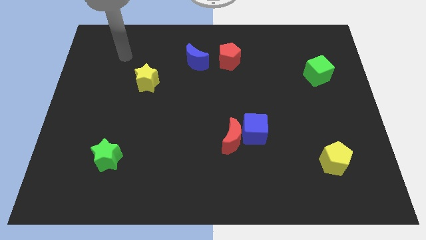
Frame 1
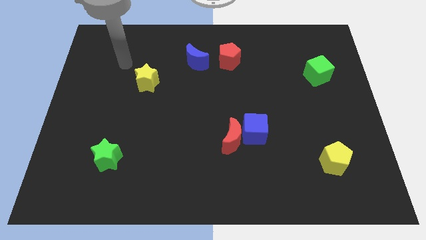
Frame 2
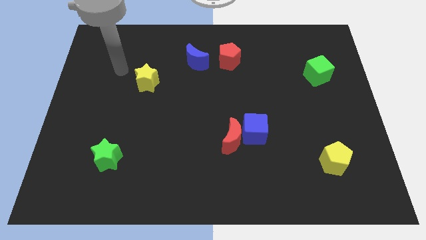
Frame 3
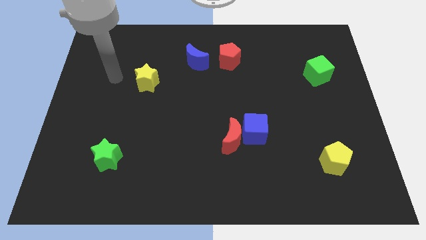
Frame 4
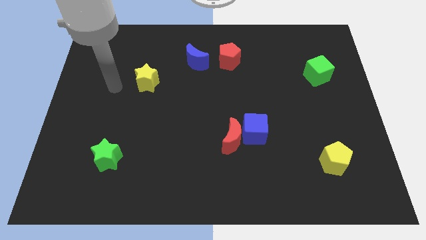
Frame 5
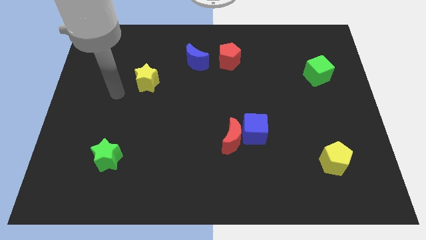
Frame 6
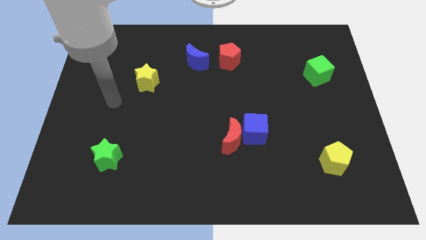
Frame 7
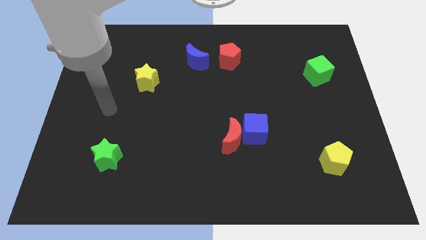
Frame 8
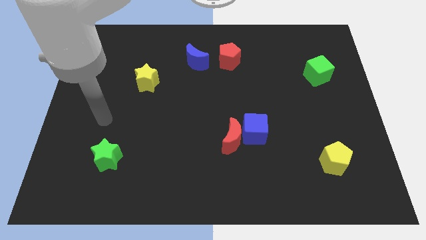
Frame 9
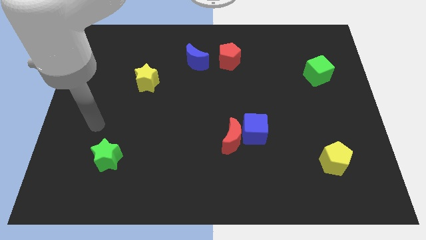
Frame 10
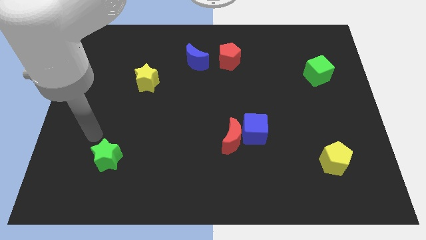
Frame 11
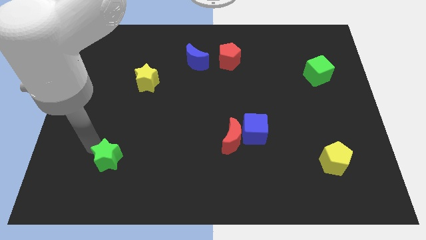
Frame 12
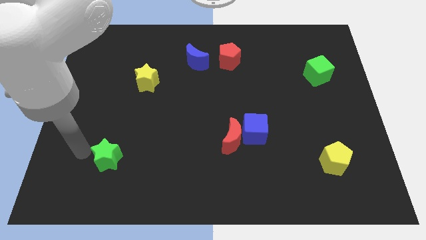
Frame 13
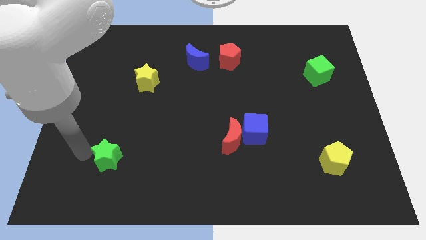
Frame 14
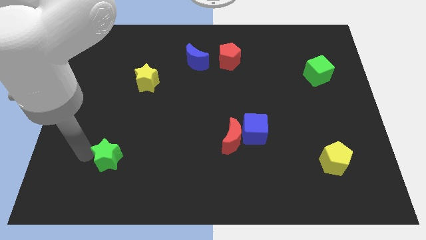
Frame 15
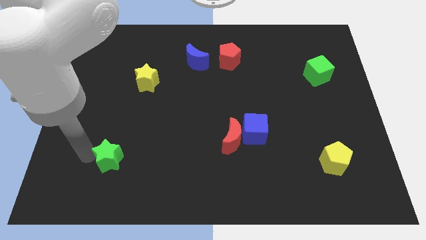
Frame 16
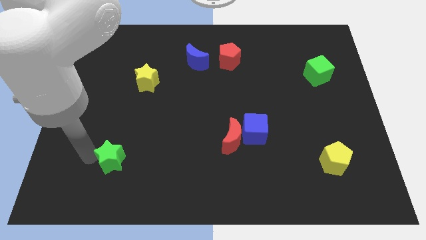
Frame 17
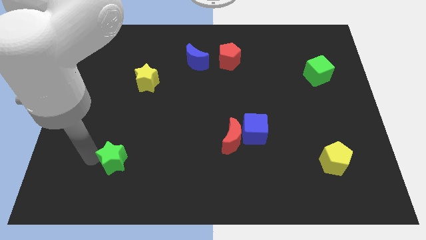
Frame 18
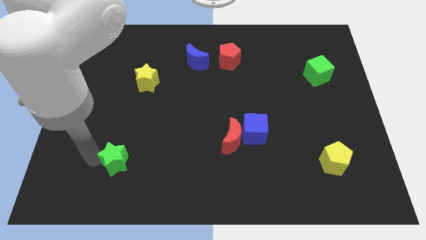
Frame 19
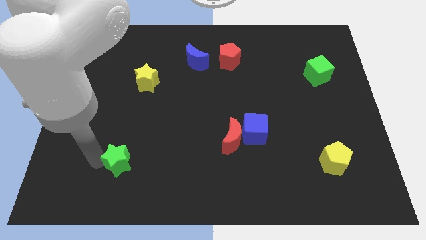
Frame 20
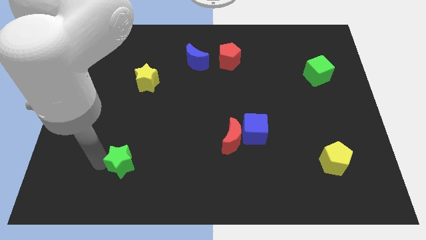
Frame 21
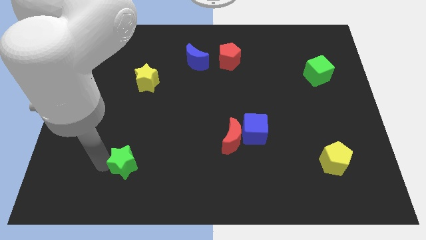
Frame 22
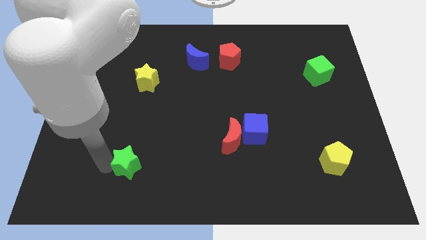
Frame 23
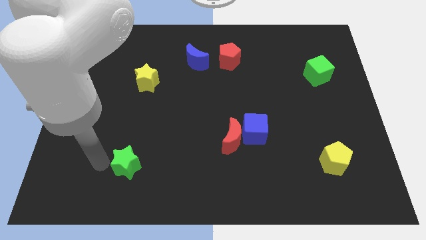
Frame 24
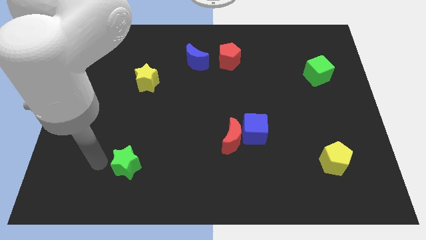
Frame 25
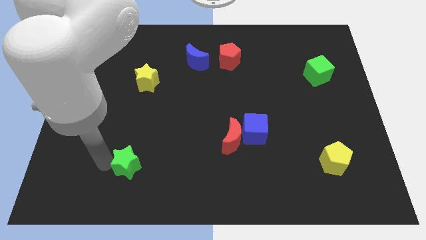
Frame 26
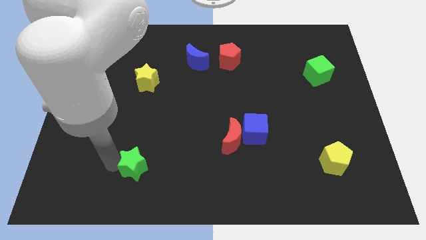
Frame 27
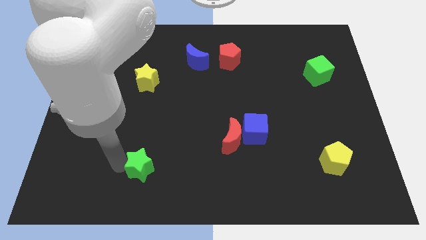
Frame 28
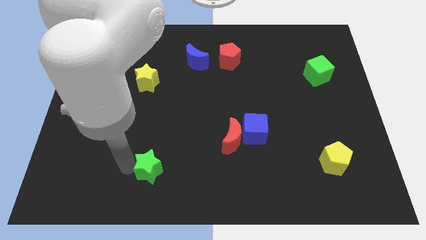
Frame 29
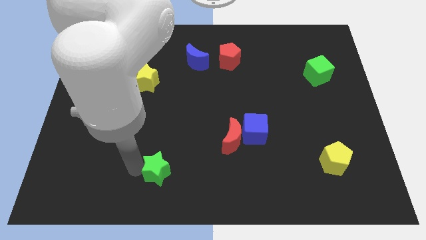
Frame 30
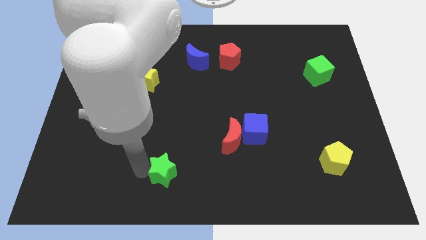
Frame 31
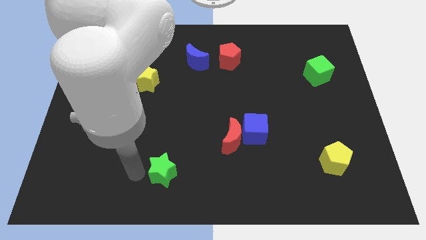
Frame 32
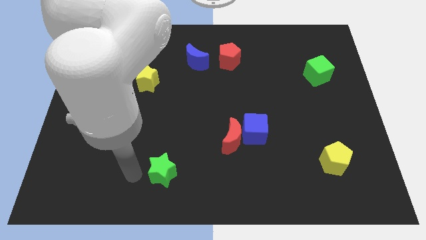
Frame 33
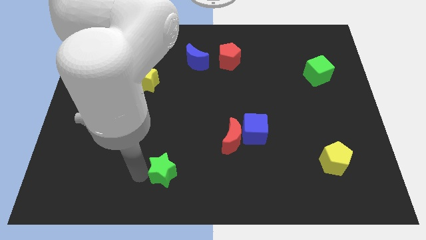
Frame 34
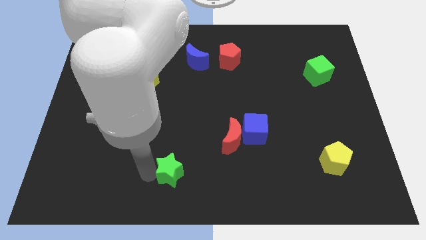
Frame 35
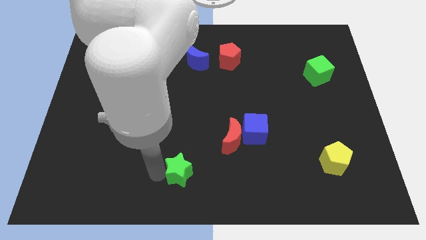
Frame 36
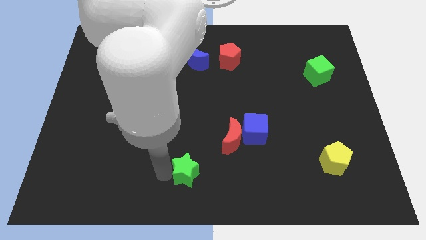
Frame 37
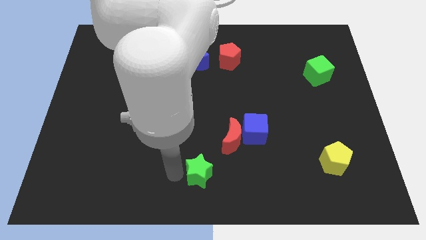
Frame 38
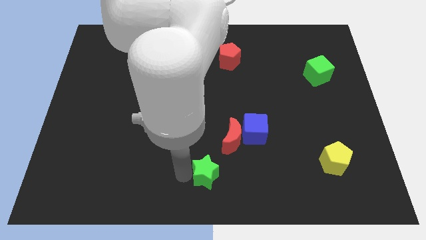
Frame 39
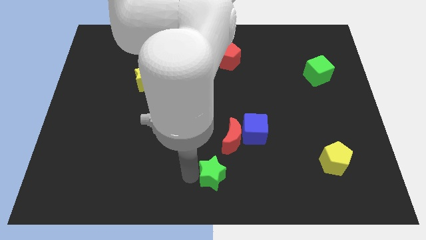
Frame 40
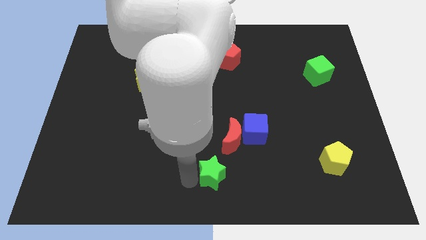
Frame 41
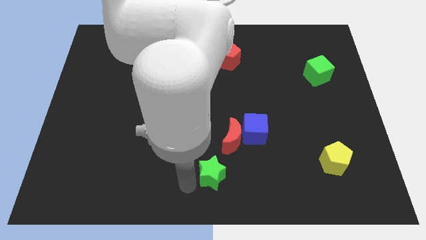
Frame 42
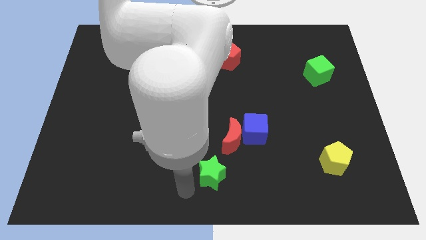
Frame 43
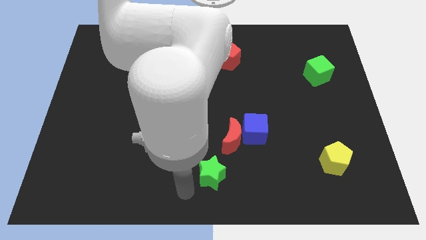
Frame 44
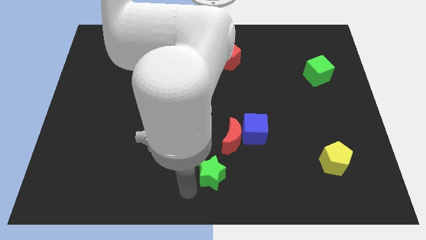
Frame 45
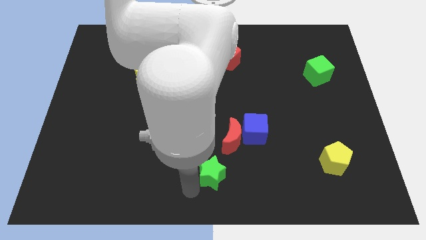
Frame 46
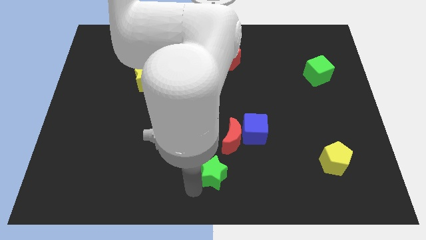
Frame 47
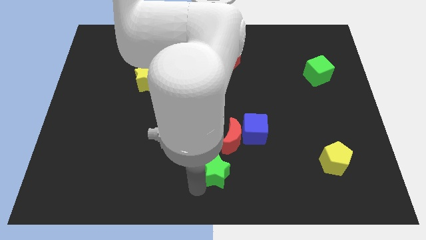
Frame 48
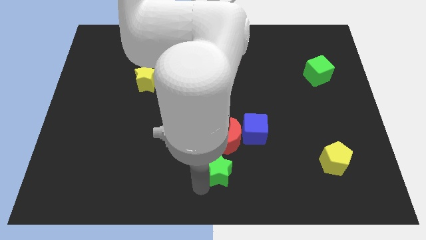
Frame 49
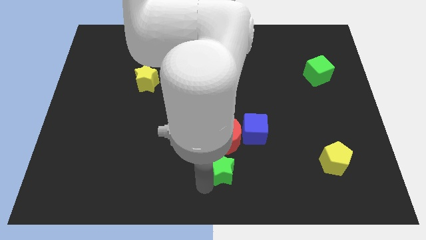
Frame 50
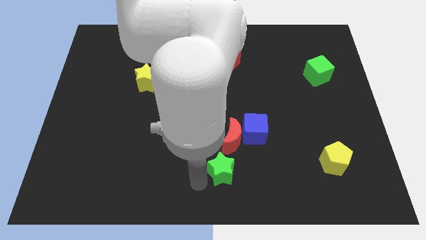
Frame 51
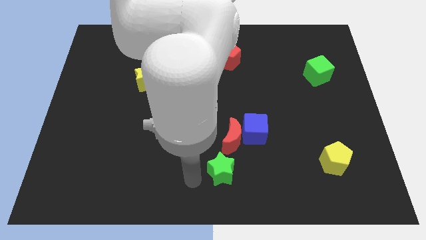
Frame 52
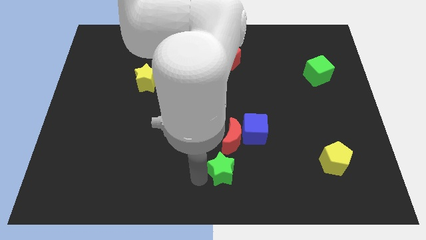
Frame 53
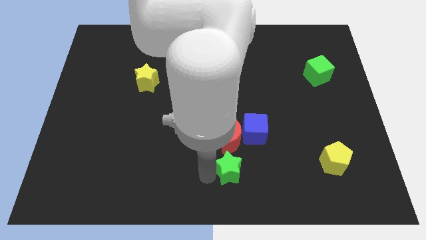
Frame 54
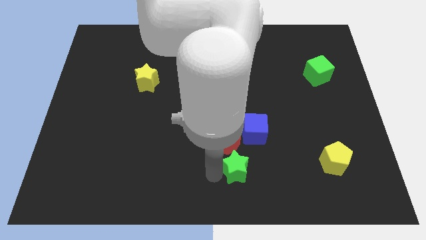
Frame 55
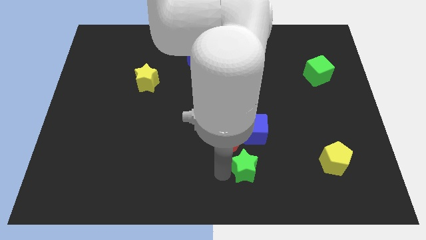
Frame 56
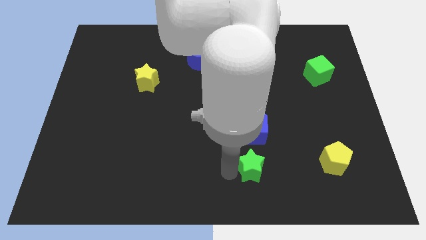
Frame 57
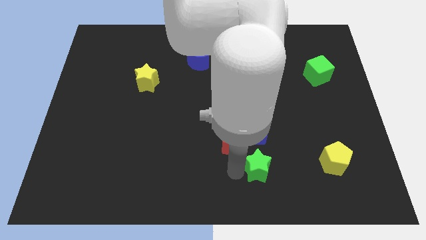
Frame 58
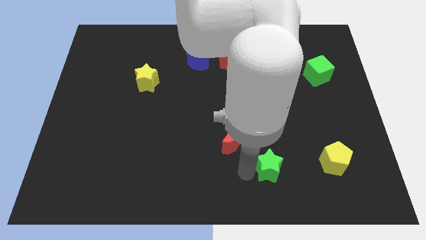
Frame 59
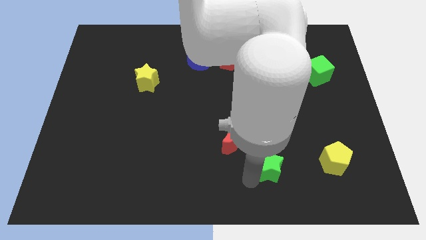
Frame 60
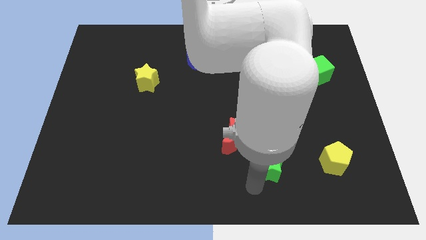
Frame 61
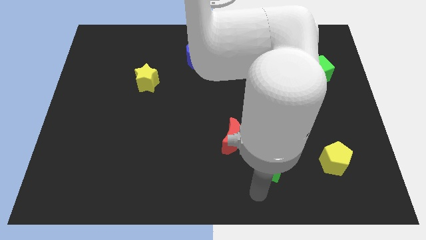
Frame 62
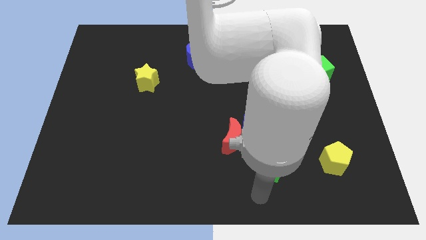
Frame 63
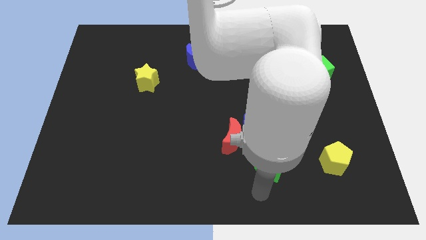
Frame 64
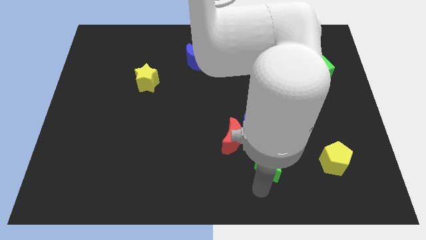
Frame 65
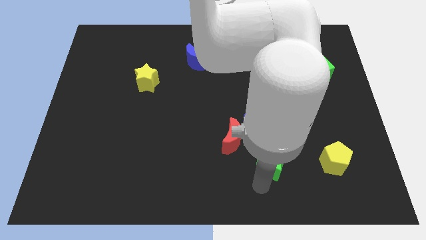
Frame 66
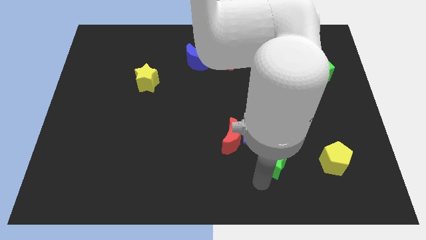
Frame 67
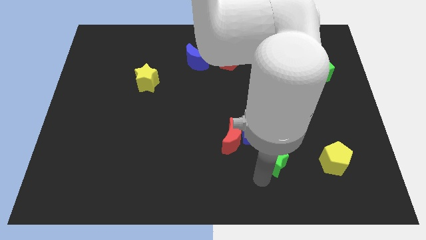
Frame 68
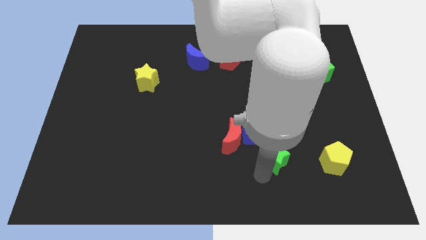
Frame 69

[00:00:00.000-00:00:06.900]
move the green star to the right of the red moon
